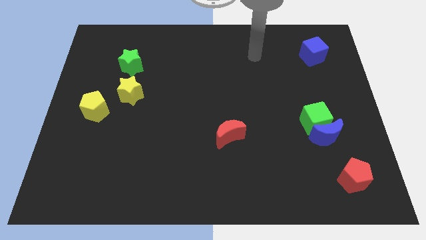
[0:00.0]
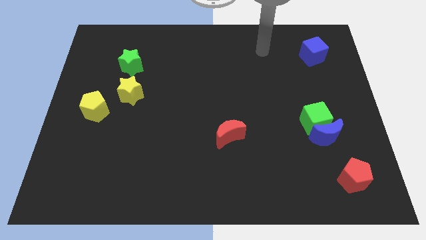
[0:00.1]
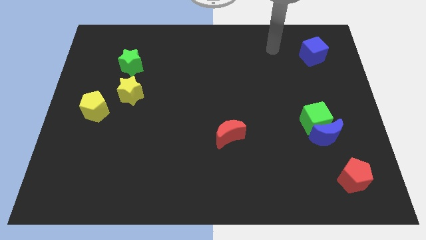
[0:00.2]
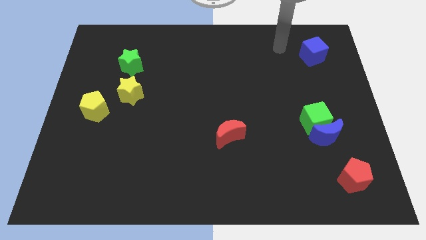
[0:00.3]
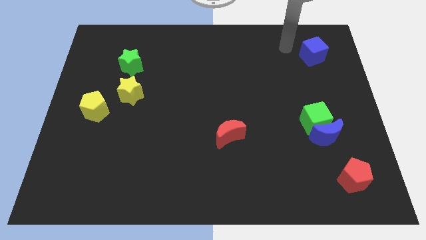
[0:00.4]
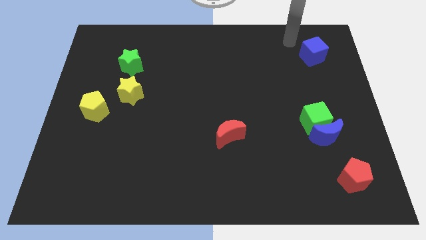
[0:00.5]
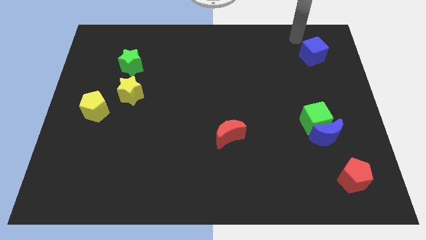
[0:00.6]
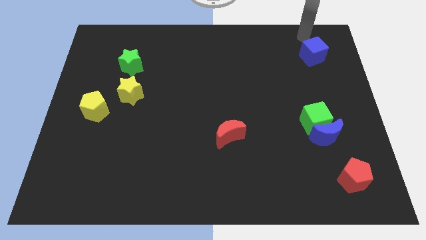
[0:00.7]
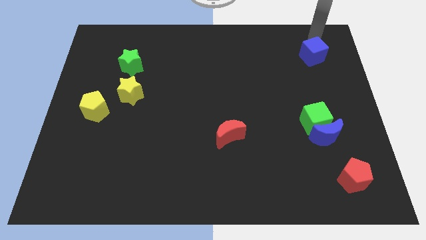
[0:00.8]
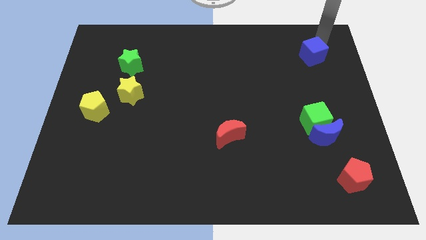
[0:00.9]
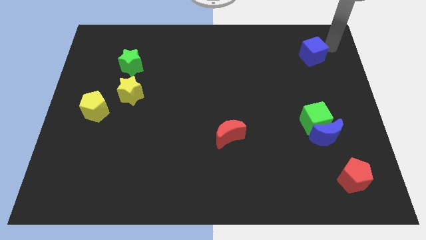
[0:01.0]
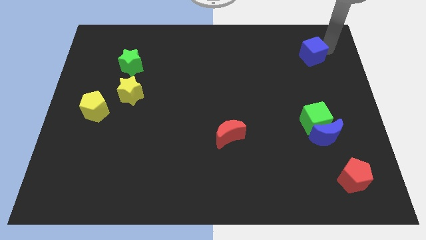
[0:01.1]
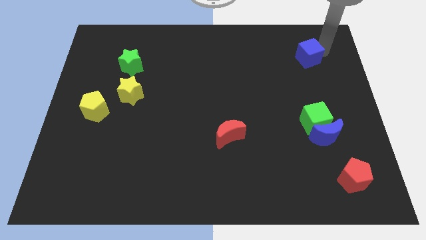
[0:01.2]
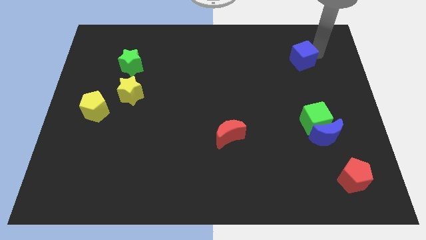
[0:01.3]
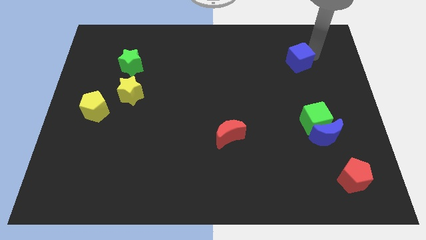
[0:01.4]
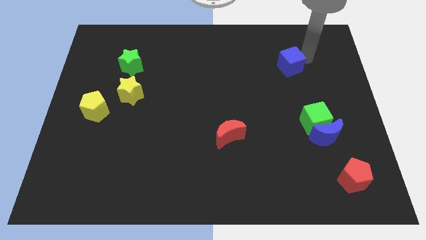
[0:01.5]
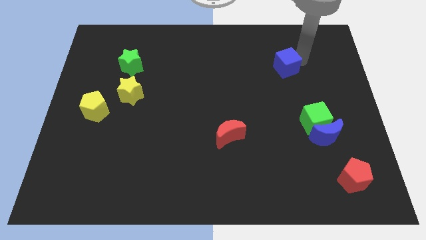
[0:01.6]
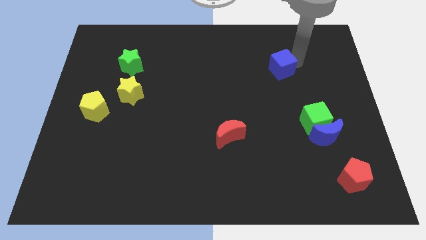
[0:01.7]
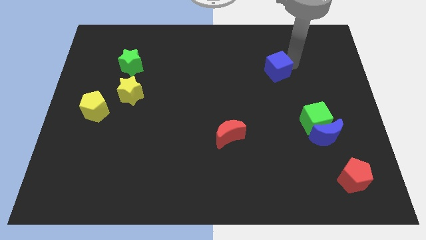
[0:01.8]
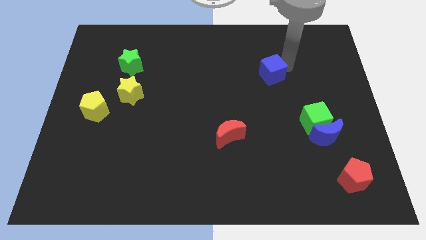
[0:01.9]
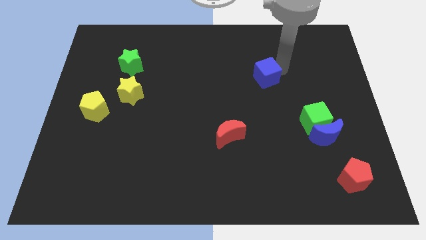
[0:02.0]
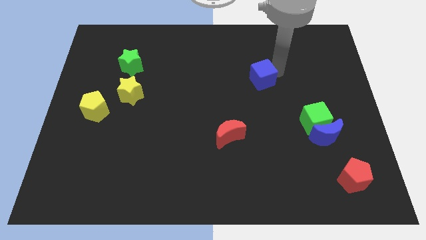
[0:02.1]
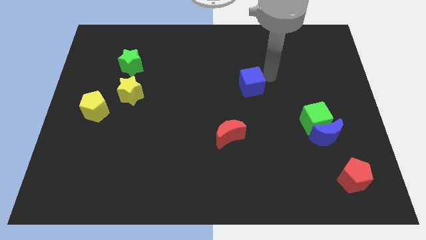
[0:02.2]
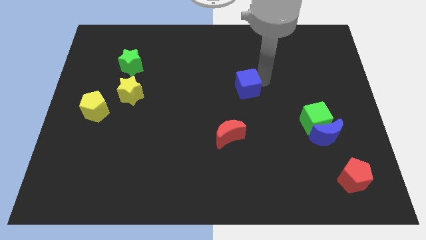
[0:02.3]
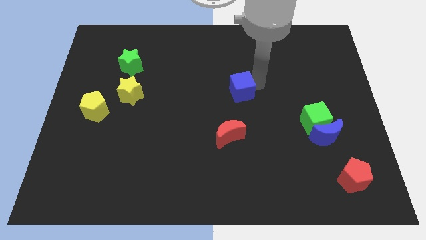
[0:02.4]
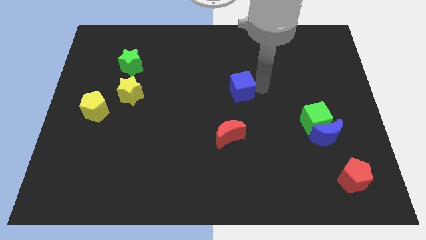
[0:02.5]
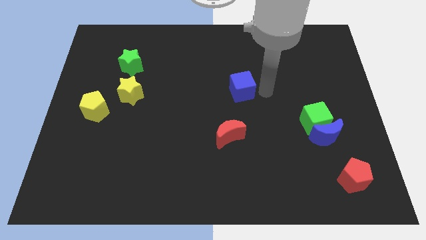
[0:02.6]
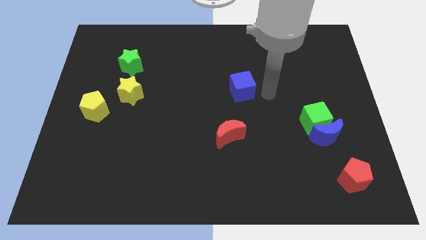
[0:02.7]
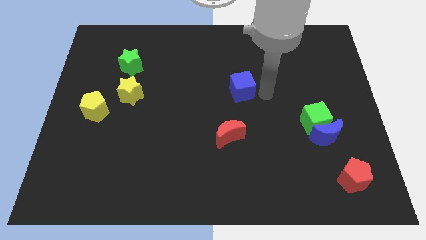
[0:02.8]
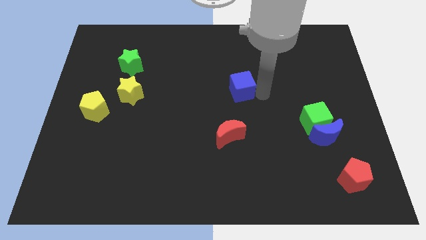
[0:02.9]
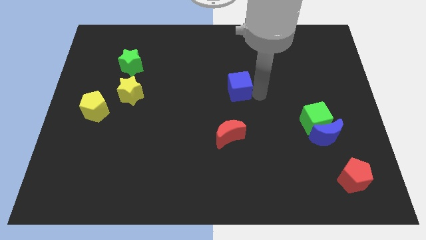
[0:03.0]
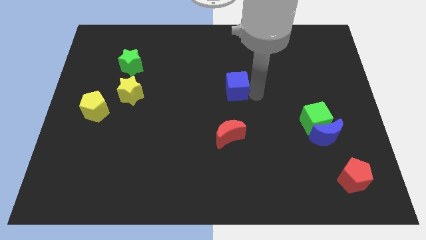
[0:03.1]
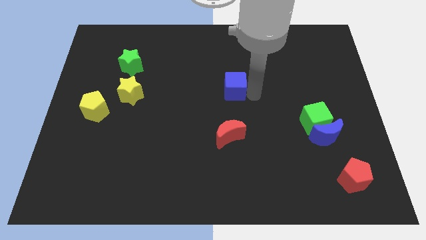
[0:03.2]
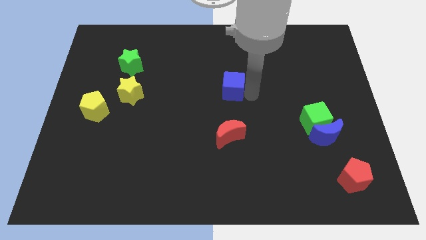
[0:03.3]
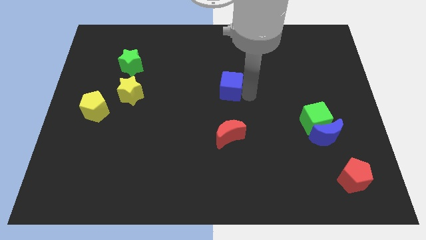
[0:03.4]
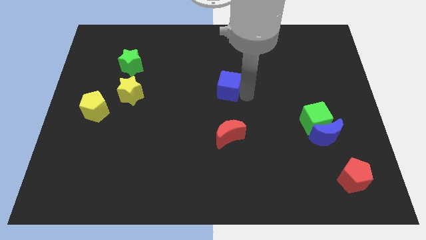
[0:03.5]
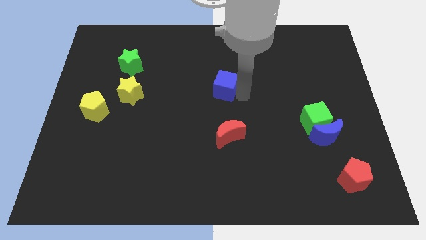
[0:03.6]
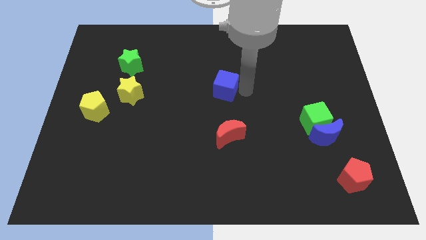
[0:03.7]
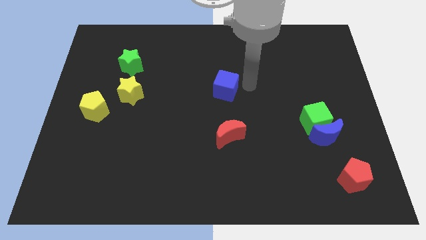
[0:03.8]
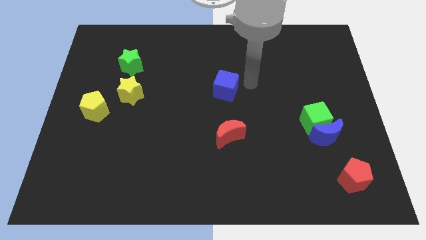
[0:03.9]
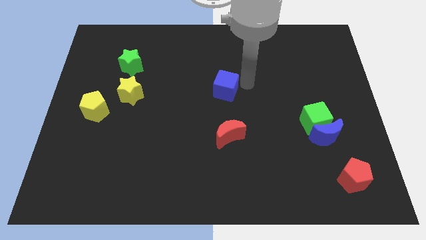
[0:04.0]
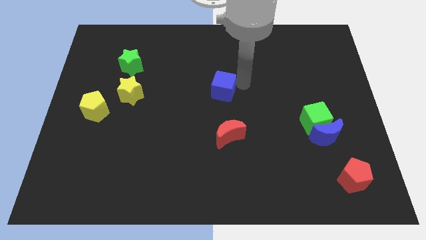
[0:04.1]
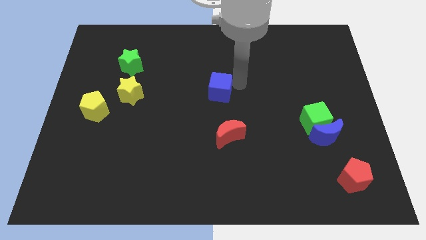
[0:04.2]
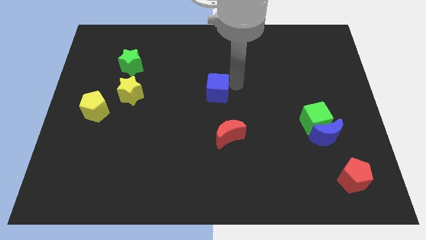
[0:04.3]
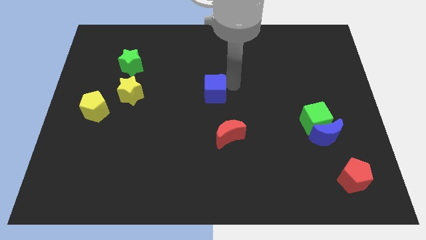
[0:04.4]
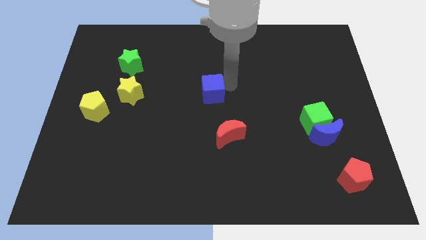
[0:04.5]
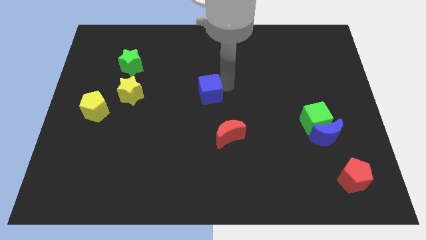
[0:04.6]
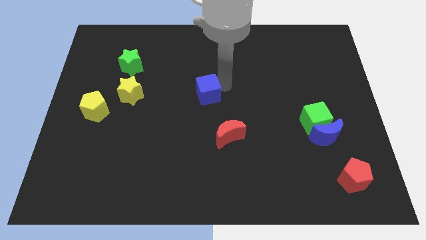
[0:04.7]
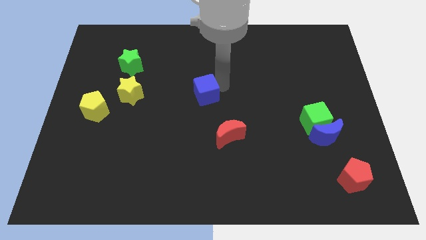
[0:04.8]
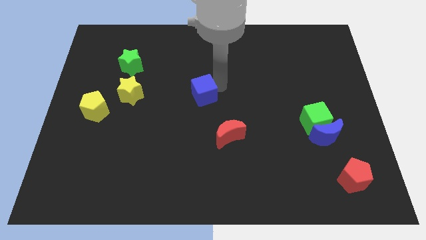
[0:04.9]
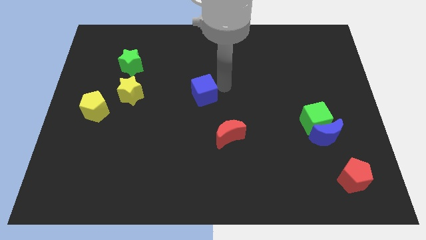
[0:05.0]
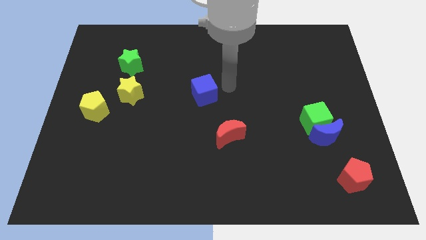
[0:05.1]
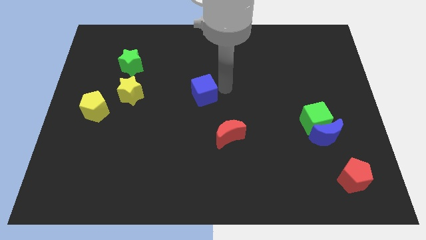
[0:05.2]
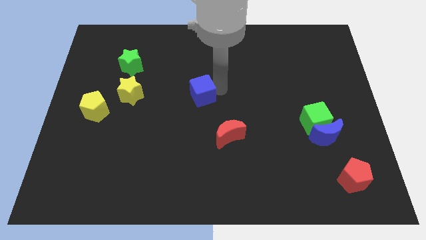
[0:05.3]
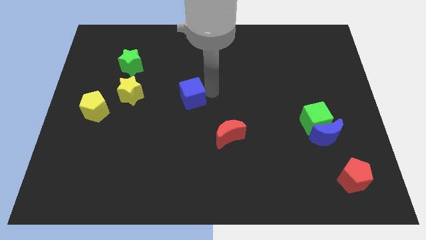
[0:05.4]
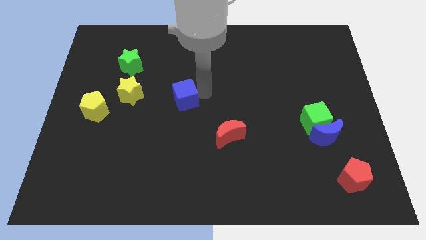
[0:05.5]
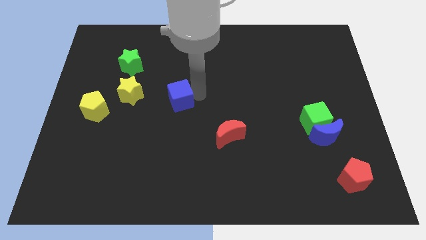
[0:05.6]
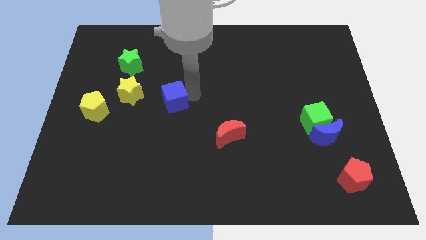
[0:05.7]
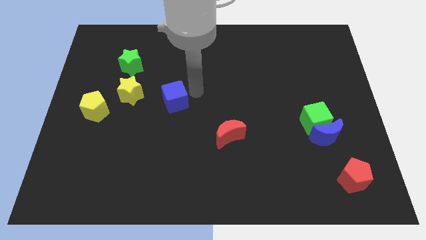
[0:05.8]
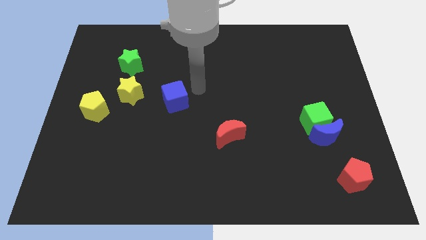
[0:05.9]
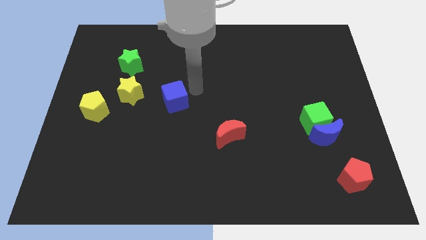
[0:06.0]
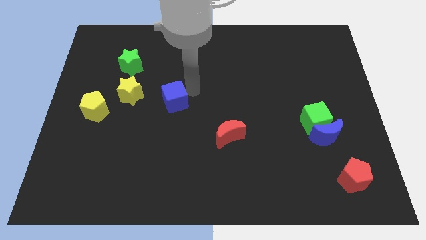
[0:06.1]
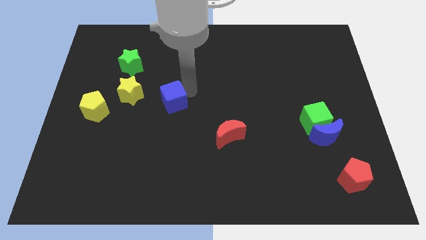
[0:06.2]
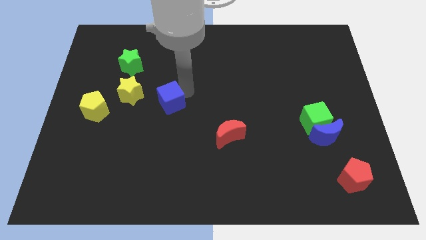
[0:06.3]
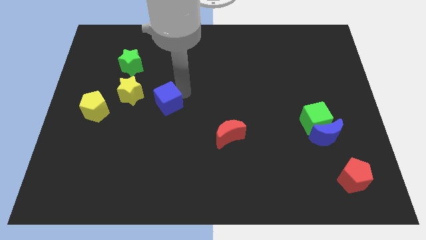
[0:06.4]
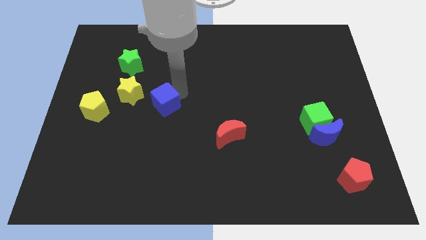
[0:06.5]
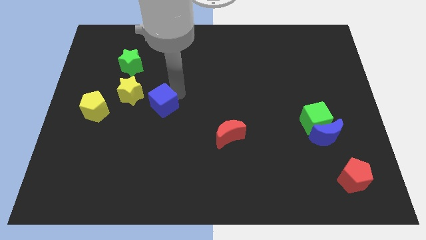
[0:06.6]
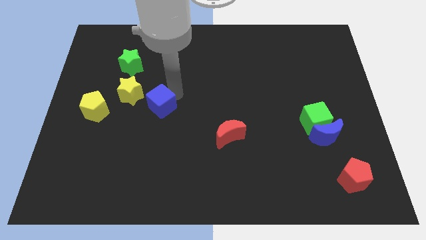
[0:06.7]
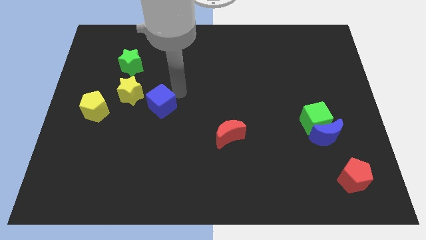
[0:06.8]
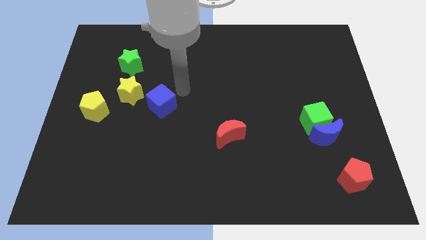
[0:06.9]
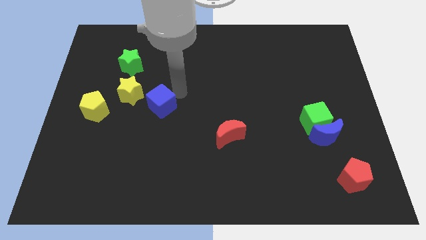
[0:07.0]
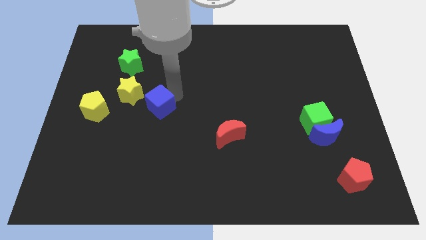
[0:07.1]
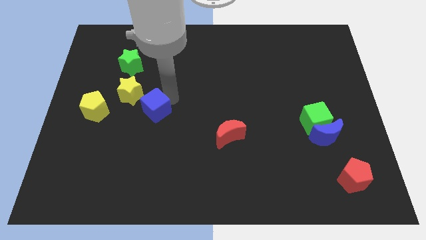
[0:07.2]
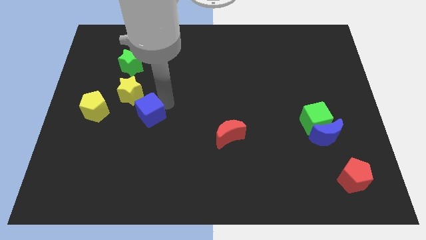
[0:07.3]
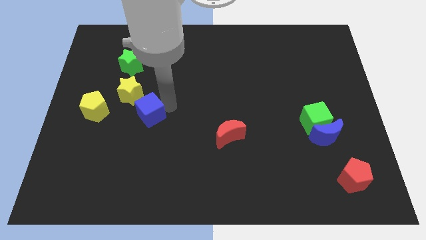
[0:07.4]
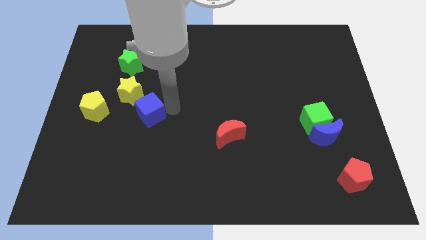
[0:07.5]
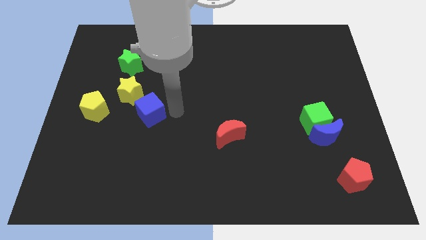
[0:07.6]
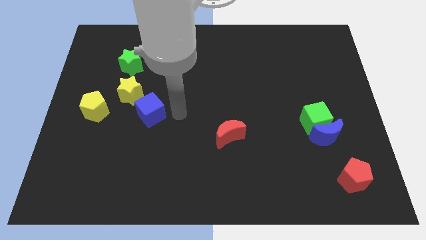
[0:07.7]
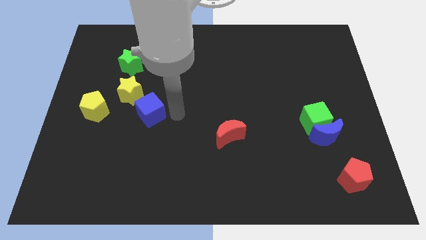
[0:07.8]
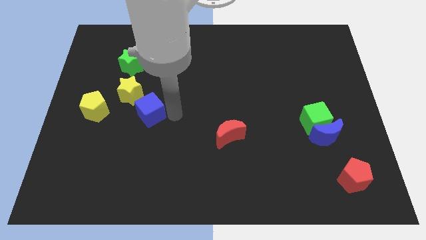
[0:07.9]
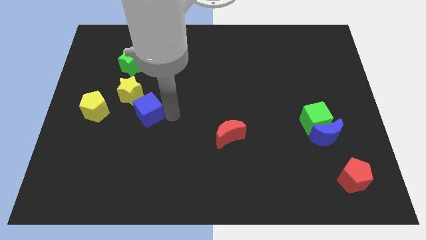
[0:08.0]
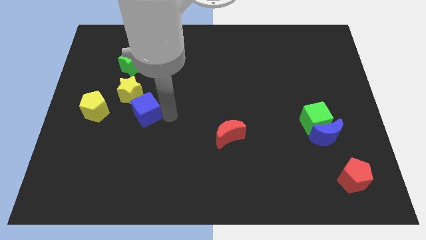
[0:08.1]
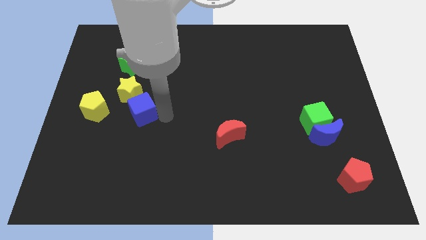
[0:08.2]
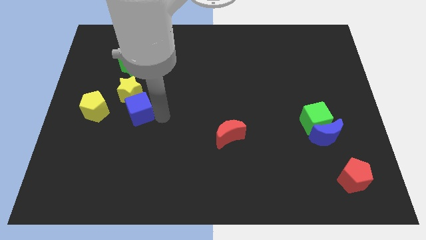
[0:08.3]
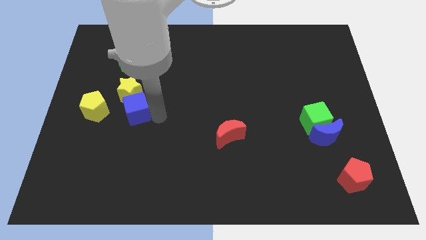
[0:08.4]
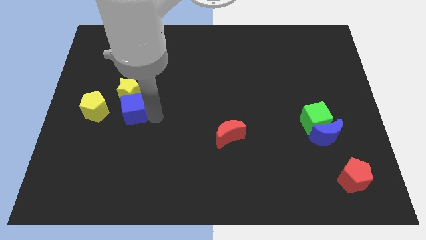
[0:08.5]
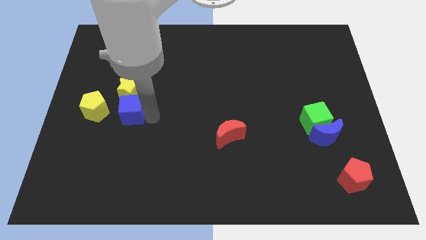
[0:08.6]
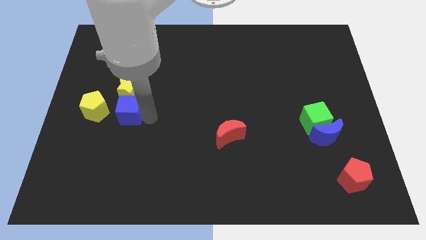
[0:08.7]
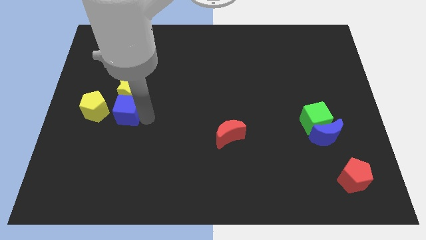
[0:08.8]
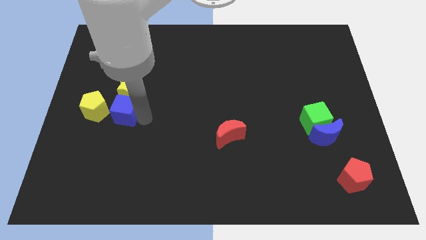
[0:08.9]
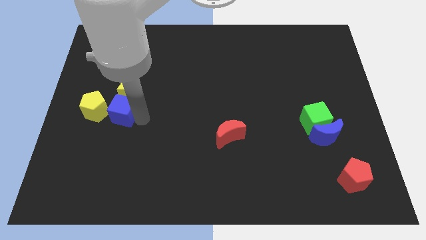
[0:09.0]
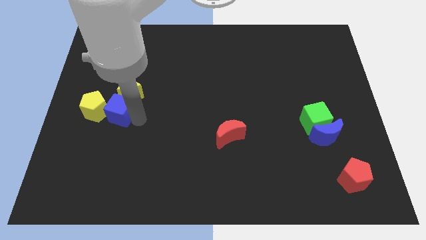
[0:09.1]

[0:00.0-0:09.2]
put the blue cube next to the yellow pentagon
